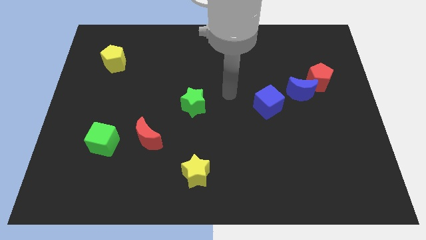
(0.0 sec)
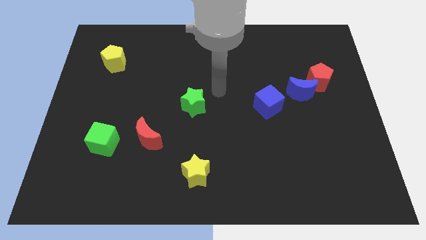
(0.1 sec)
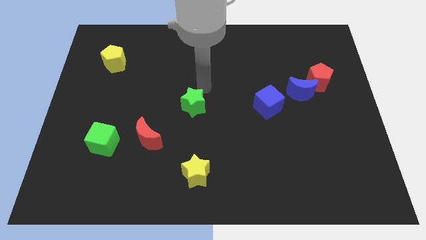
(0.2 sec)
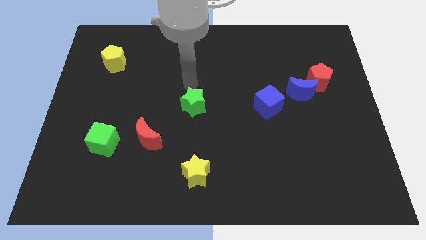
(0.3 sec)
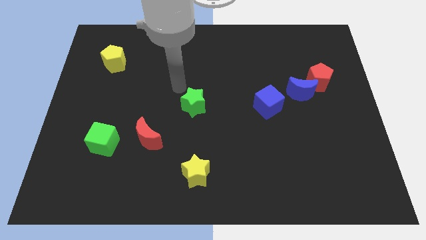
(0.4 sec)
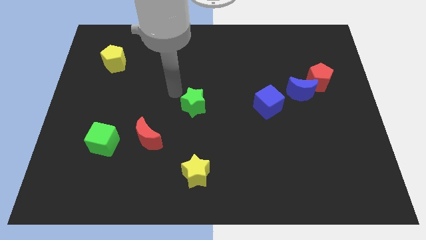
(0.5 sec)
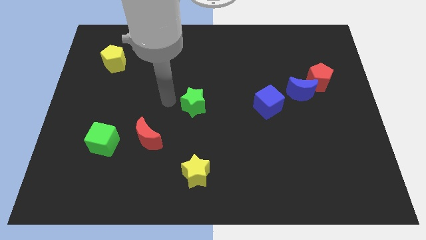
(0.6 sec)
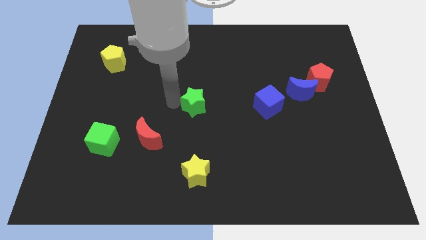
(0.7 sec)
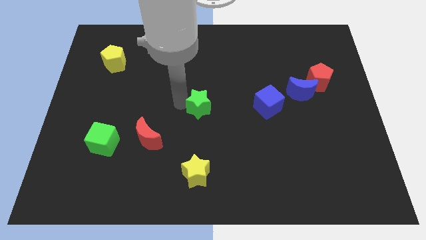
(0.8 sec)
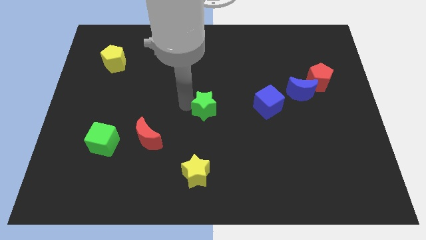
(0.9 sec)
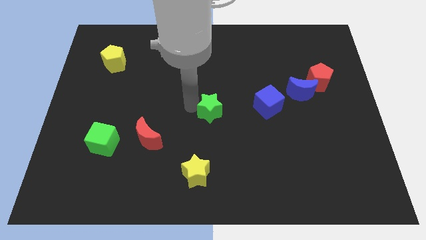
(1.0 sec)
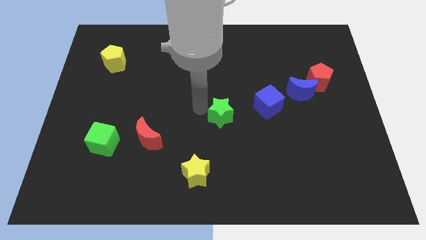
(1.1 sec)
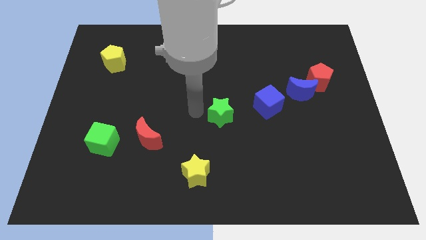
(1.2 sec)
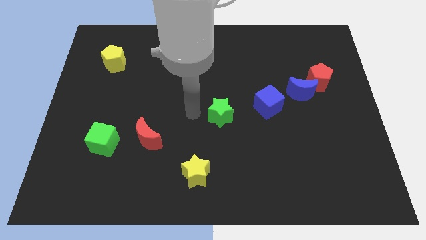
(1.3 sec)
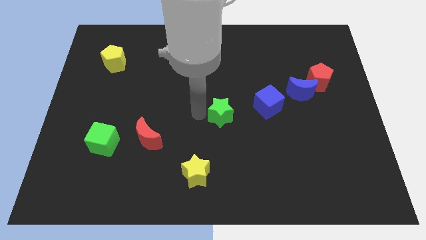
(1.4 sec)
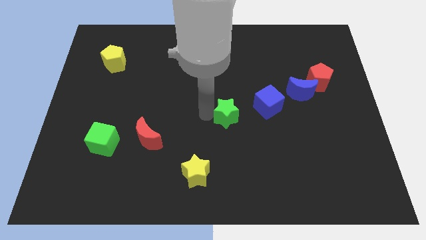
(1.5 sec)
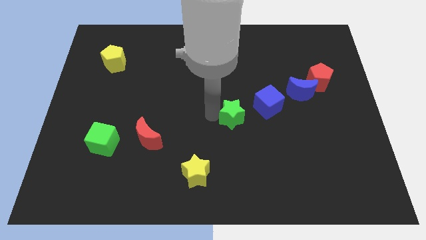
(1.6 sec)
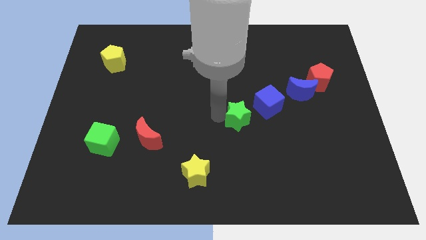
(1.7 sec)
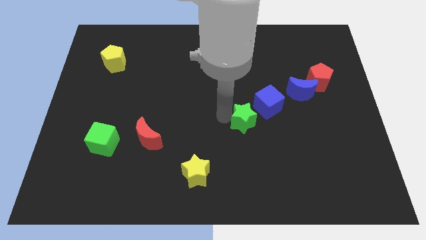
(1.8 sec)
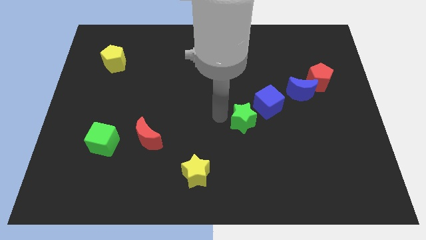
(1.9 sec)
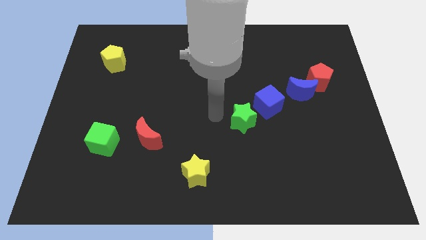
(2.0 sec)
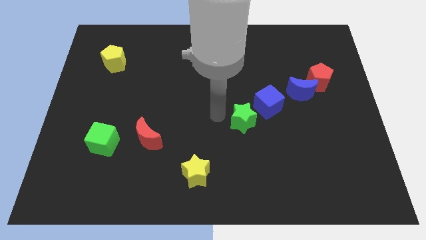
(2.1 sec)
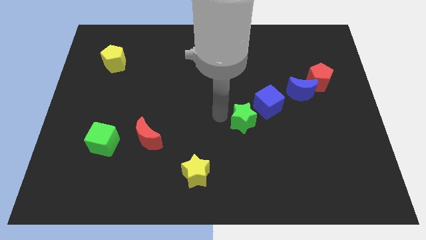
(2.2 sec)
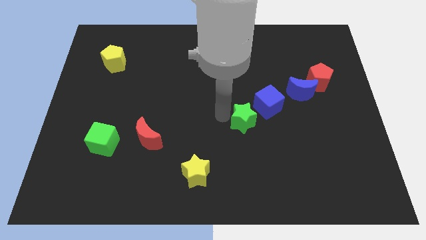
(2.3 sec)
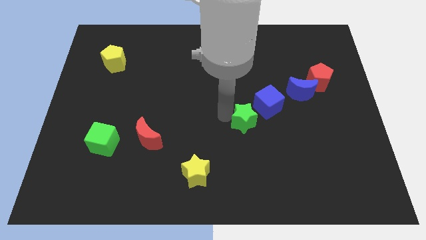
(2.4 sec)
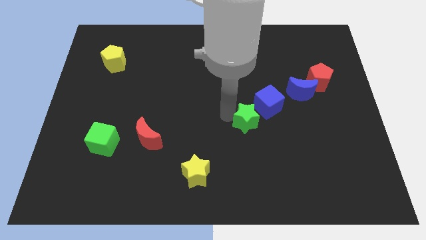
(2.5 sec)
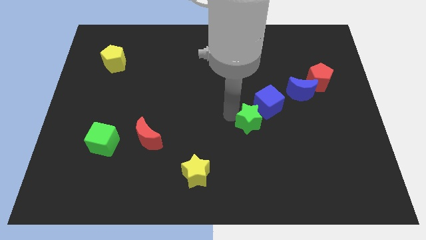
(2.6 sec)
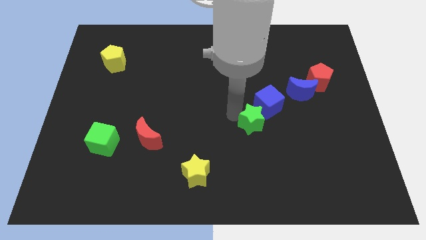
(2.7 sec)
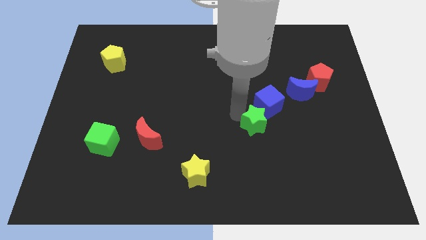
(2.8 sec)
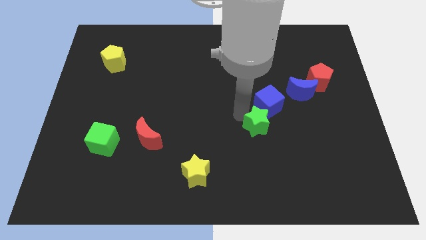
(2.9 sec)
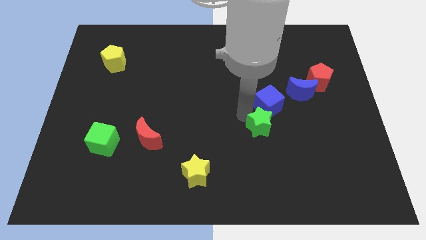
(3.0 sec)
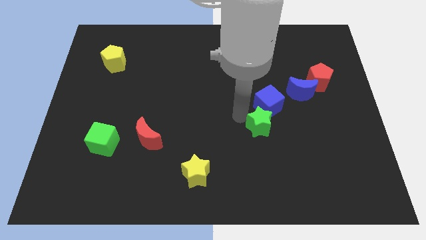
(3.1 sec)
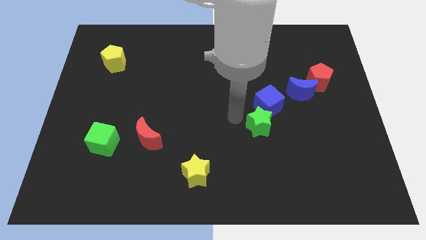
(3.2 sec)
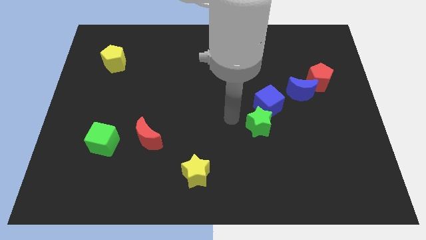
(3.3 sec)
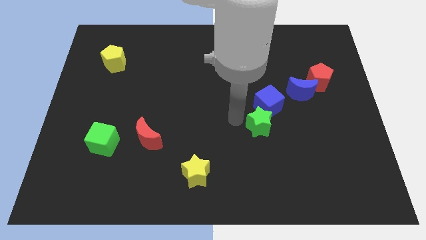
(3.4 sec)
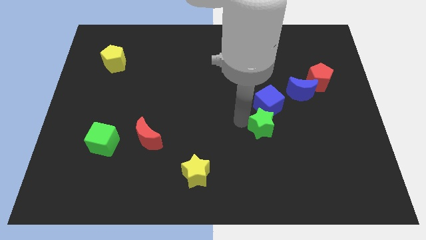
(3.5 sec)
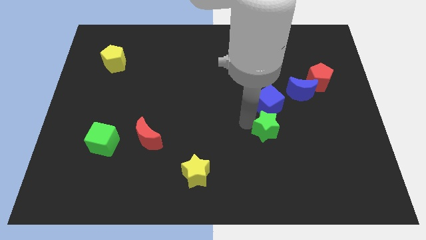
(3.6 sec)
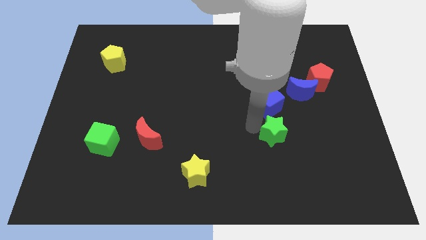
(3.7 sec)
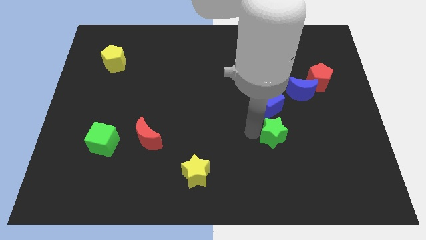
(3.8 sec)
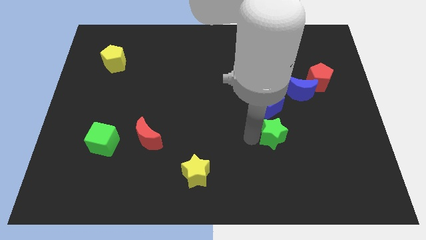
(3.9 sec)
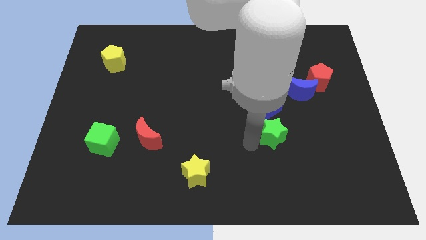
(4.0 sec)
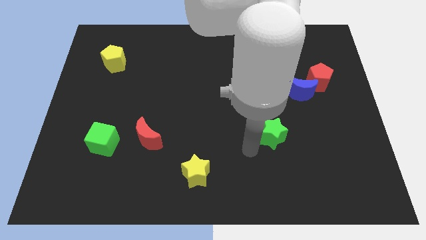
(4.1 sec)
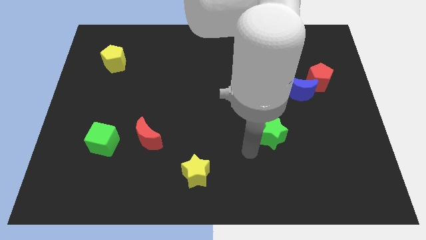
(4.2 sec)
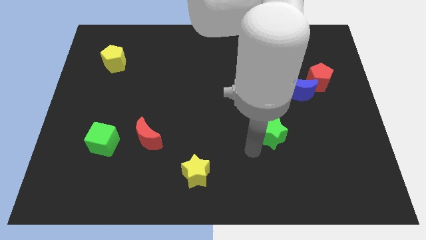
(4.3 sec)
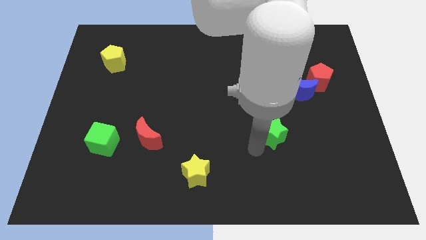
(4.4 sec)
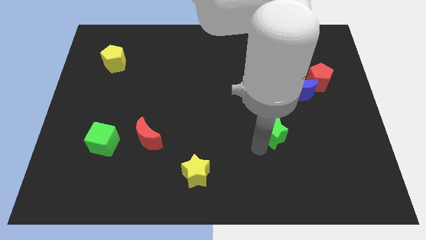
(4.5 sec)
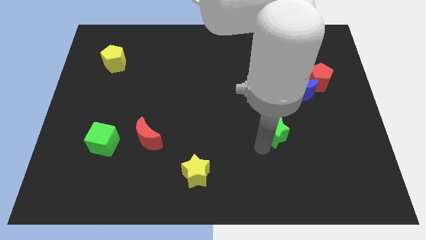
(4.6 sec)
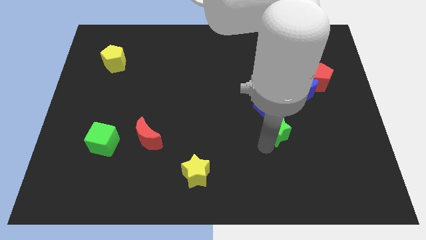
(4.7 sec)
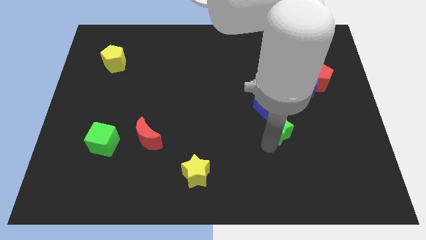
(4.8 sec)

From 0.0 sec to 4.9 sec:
push the green star diagonally down and to the right of the blue cube

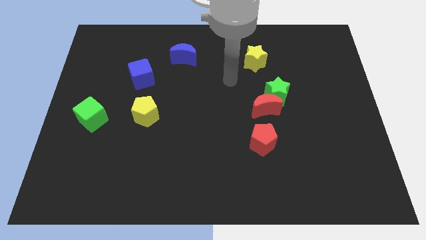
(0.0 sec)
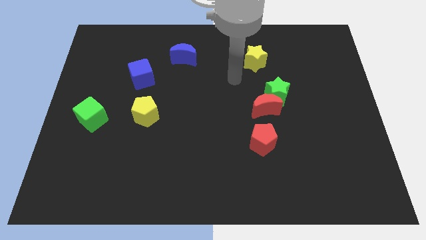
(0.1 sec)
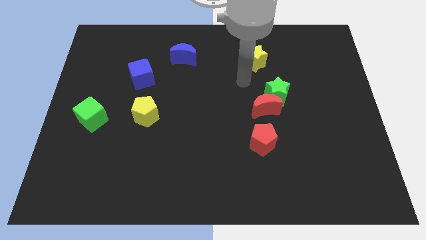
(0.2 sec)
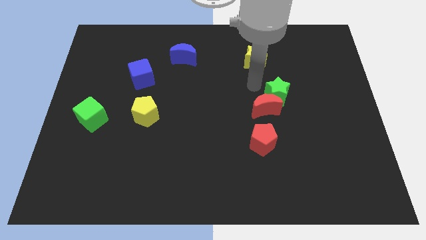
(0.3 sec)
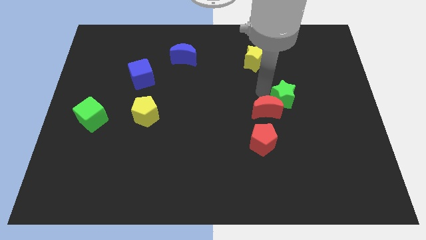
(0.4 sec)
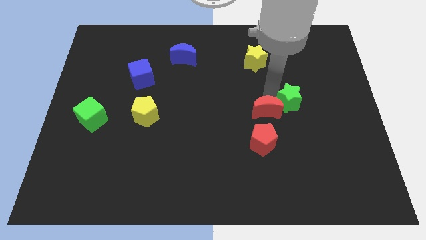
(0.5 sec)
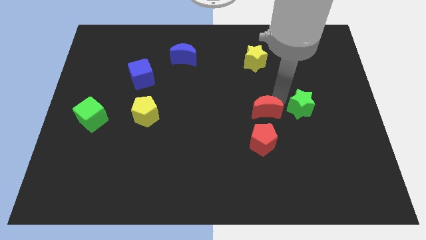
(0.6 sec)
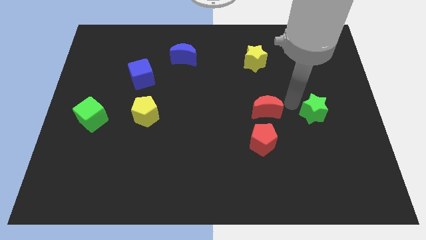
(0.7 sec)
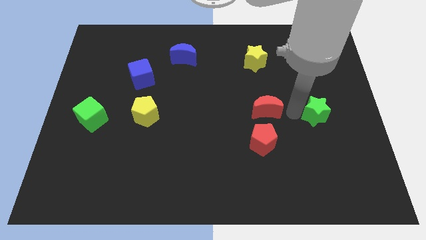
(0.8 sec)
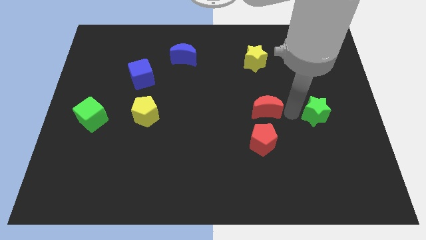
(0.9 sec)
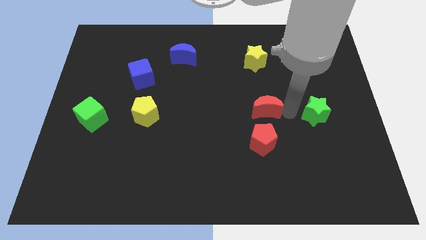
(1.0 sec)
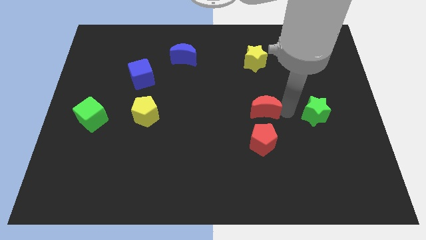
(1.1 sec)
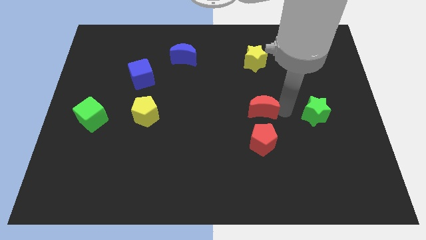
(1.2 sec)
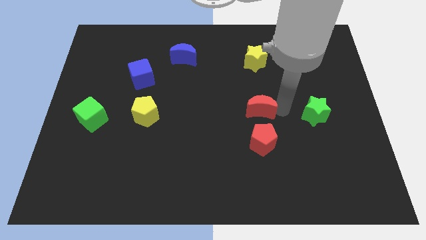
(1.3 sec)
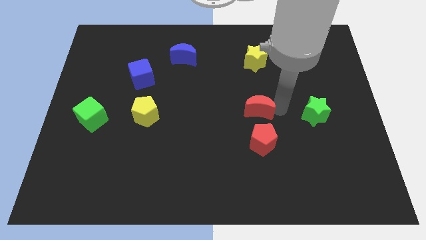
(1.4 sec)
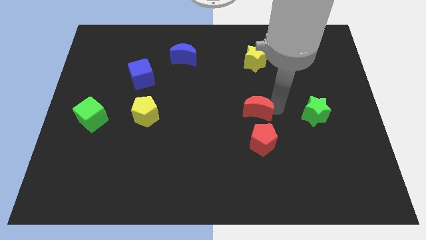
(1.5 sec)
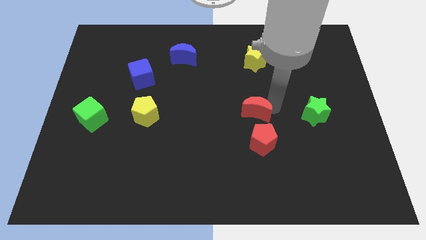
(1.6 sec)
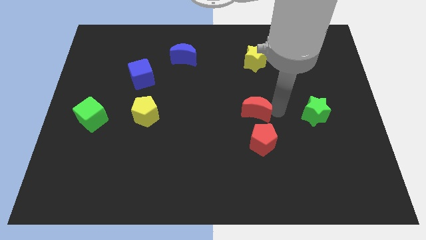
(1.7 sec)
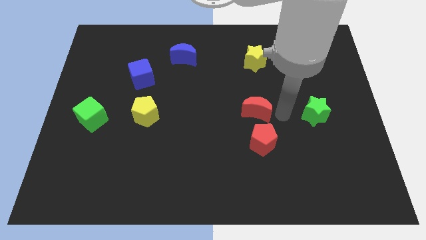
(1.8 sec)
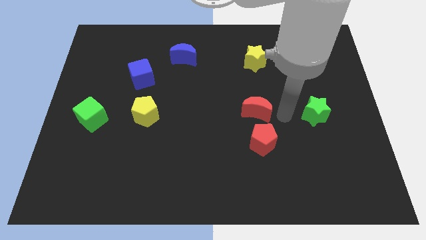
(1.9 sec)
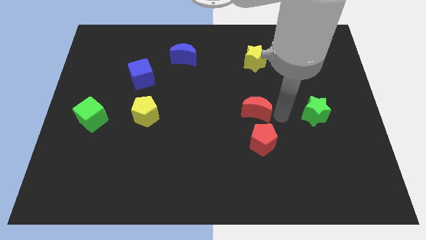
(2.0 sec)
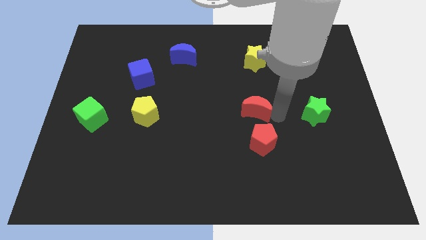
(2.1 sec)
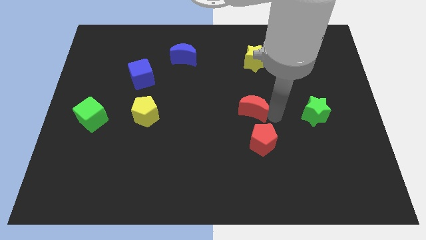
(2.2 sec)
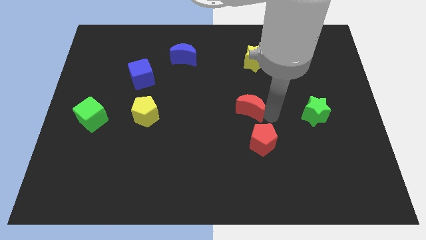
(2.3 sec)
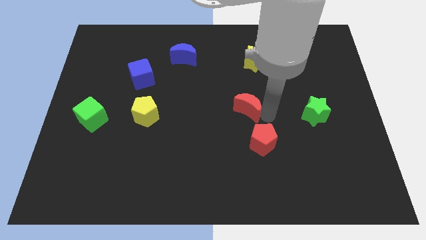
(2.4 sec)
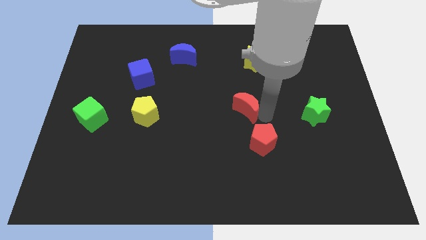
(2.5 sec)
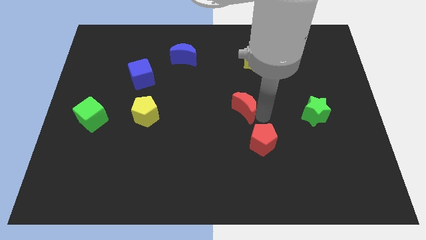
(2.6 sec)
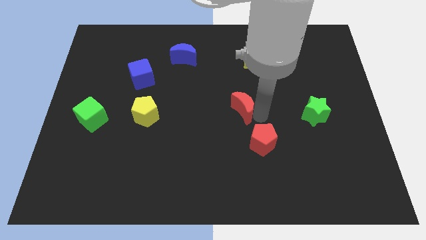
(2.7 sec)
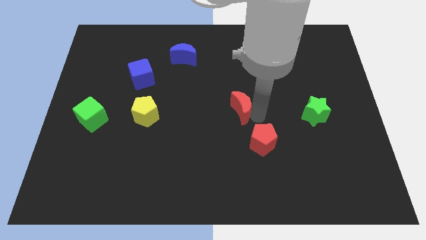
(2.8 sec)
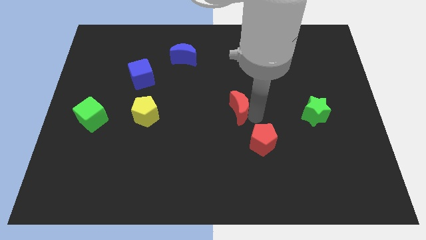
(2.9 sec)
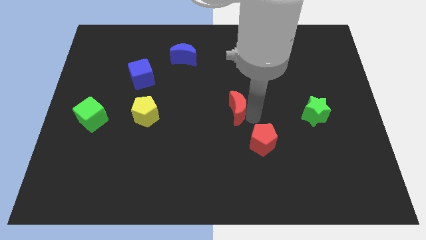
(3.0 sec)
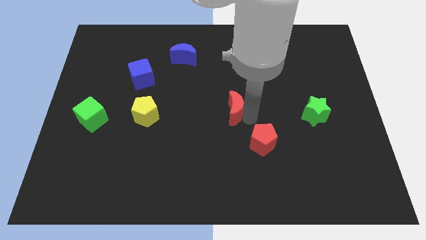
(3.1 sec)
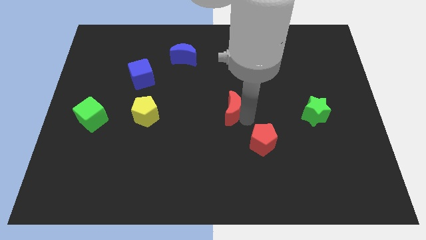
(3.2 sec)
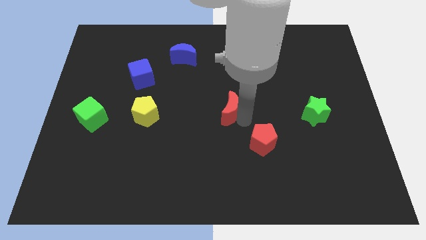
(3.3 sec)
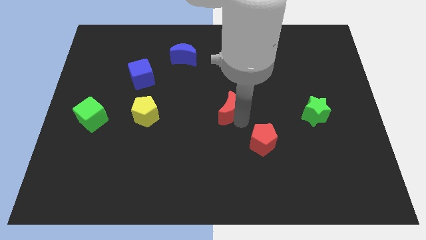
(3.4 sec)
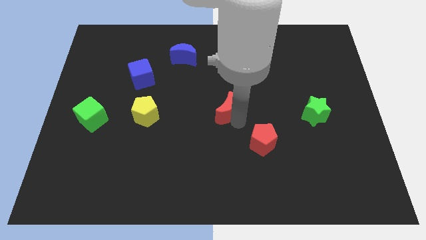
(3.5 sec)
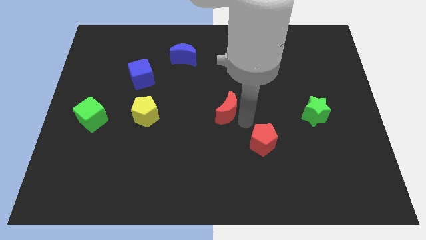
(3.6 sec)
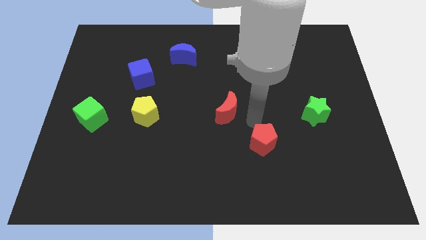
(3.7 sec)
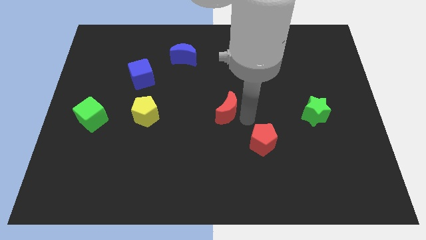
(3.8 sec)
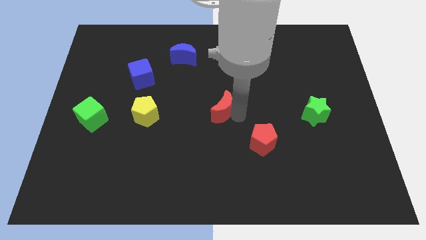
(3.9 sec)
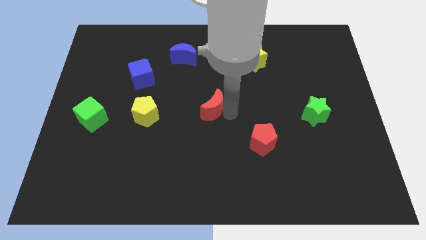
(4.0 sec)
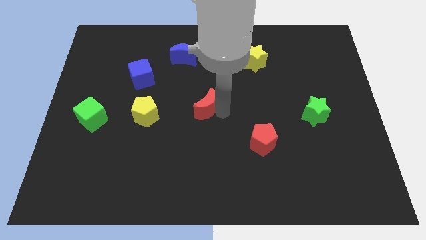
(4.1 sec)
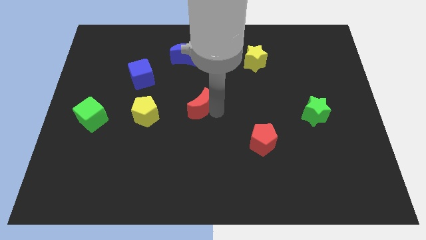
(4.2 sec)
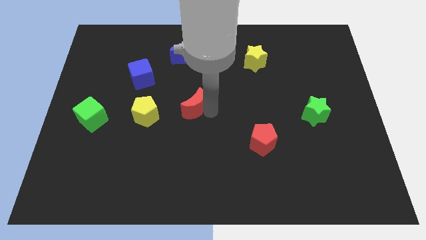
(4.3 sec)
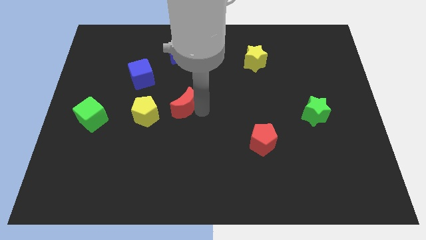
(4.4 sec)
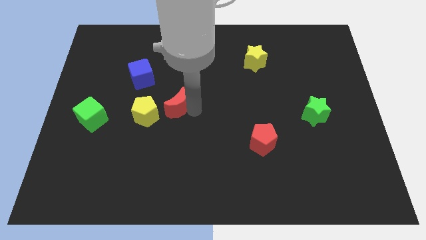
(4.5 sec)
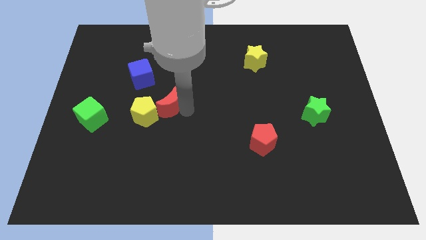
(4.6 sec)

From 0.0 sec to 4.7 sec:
slide the red moon to the bottom right side of the blue cube
